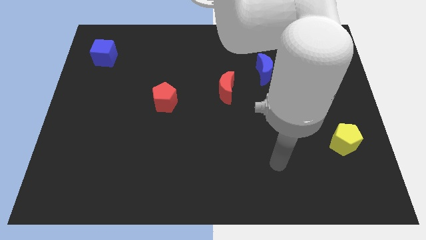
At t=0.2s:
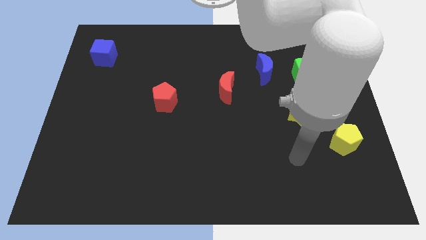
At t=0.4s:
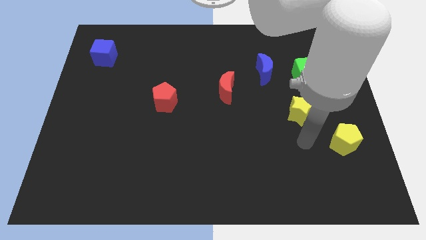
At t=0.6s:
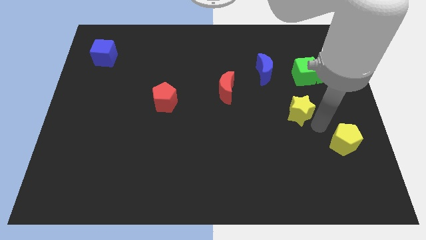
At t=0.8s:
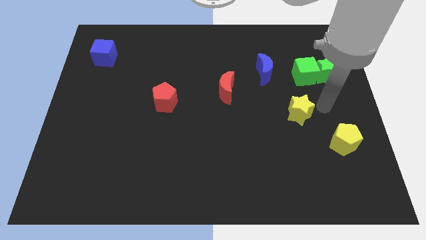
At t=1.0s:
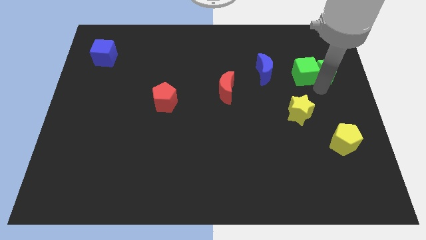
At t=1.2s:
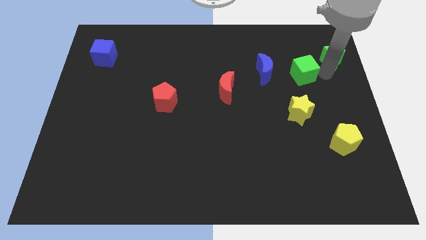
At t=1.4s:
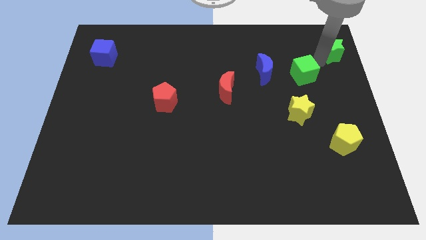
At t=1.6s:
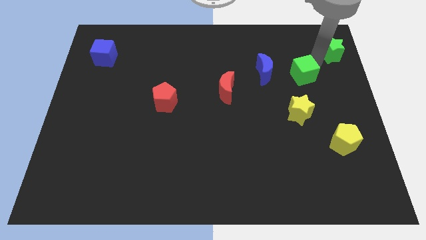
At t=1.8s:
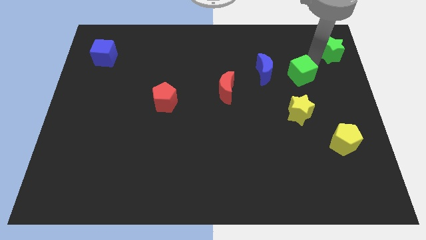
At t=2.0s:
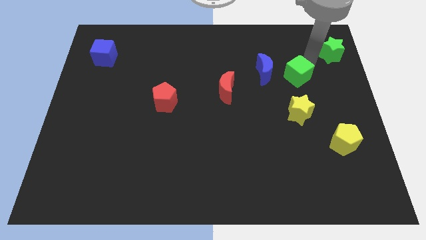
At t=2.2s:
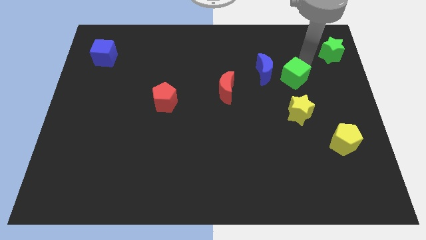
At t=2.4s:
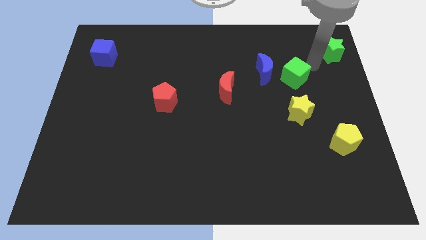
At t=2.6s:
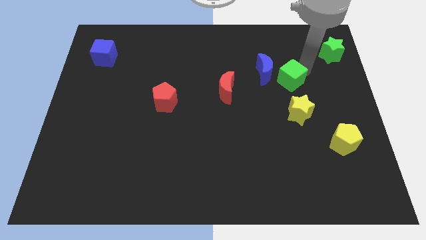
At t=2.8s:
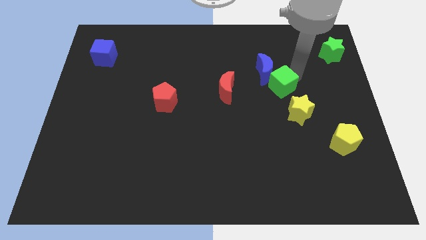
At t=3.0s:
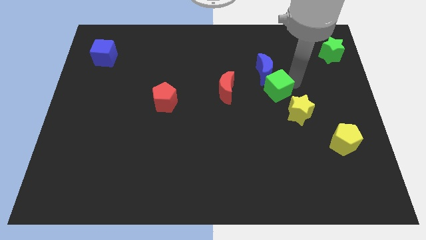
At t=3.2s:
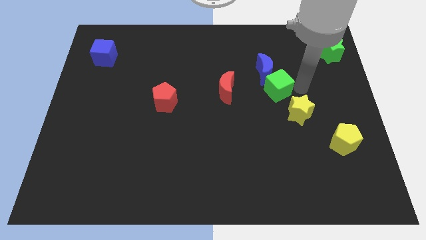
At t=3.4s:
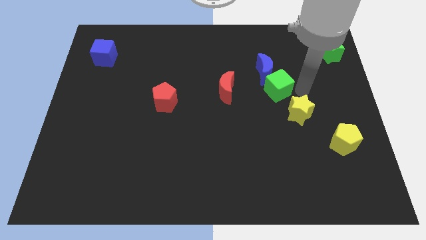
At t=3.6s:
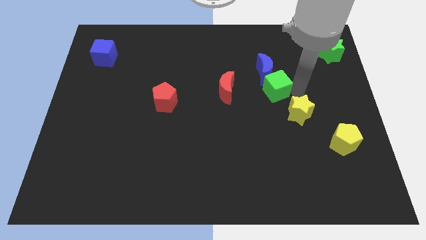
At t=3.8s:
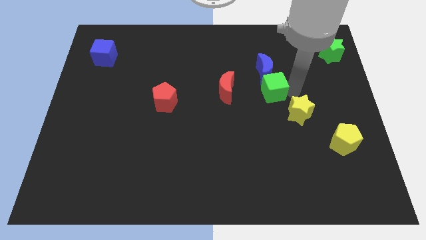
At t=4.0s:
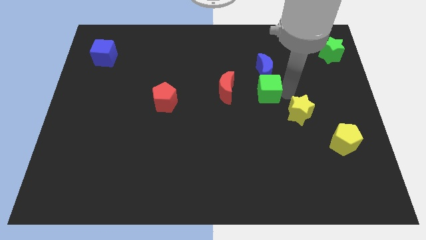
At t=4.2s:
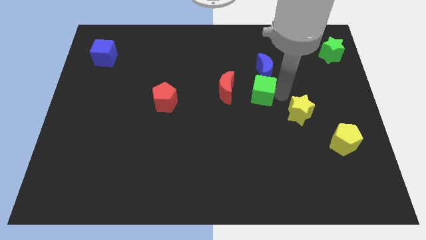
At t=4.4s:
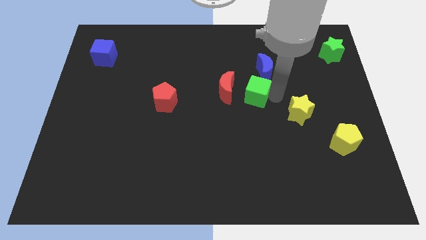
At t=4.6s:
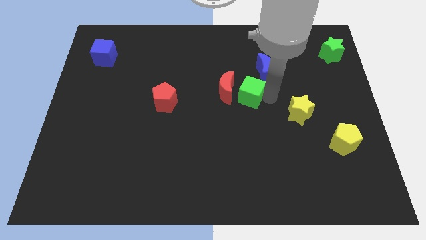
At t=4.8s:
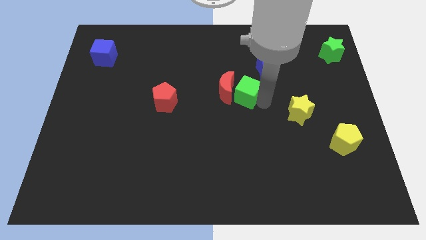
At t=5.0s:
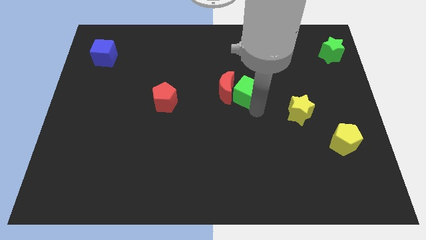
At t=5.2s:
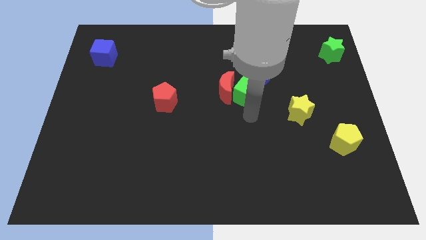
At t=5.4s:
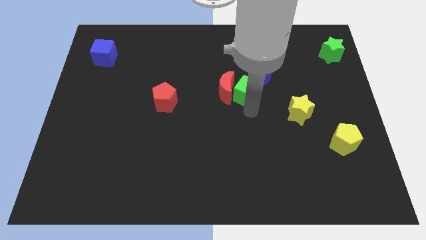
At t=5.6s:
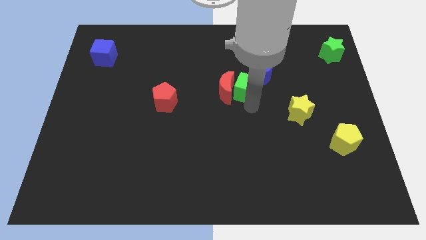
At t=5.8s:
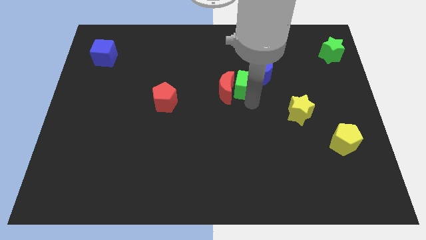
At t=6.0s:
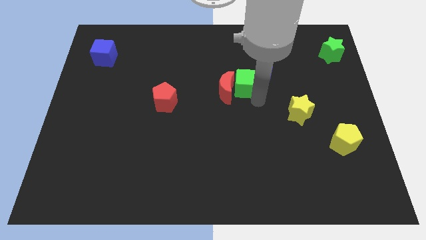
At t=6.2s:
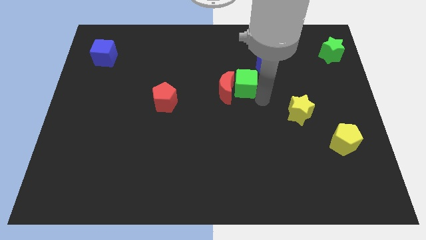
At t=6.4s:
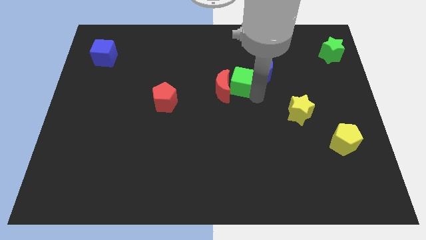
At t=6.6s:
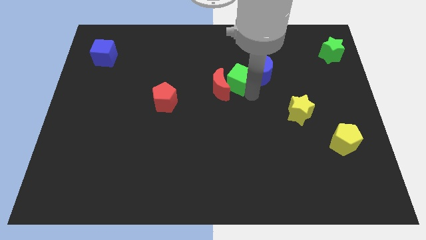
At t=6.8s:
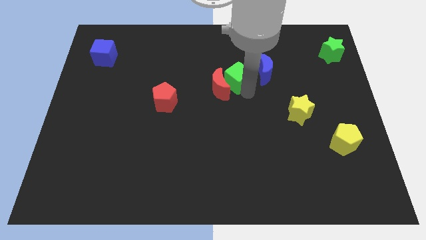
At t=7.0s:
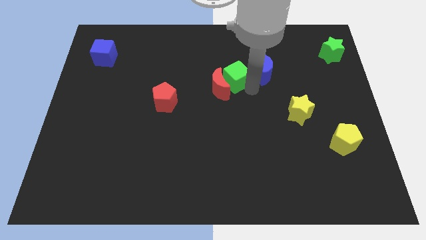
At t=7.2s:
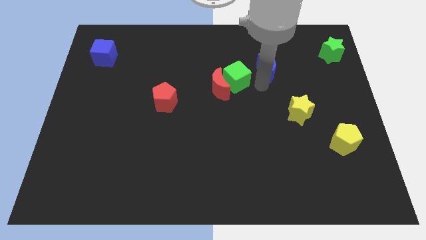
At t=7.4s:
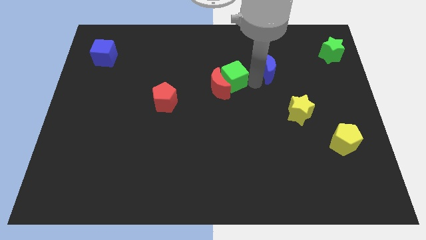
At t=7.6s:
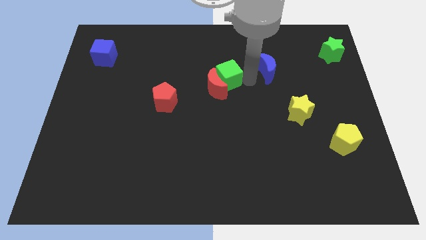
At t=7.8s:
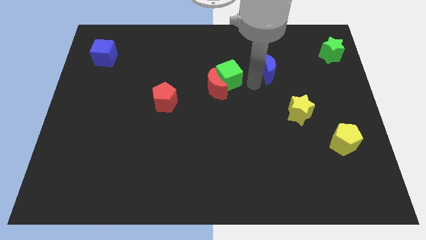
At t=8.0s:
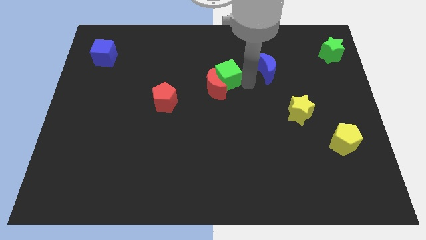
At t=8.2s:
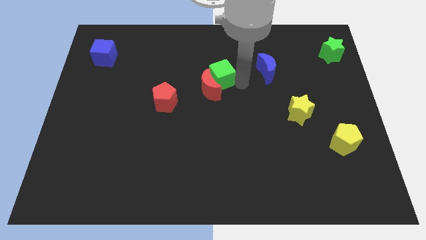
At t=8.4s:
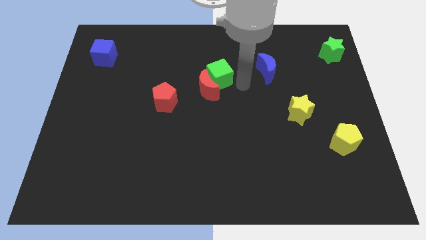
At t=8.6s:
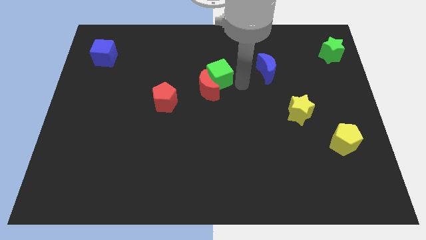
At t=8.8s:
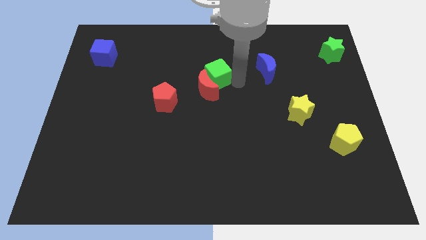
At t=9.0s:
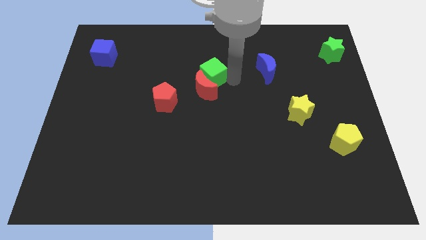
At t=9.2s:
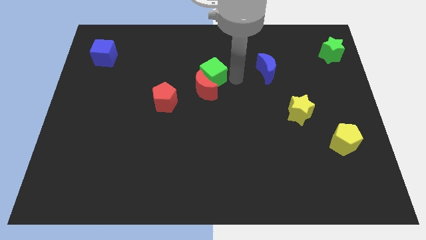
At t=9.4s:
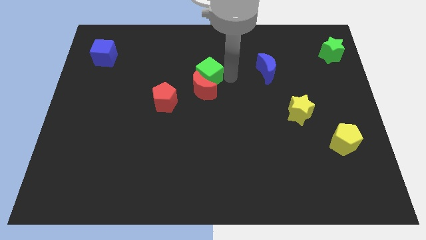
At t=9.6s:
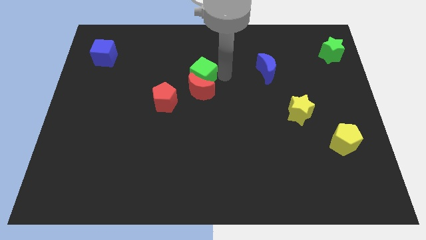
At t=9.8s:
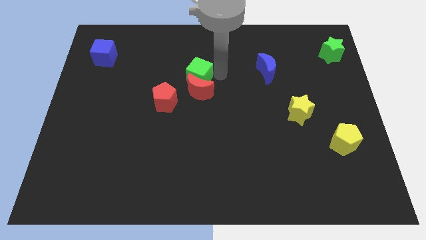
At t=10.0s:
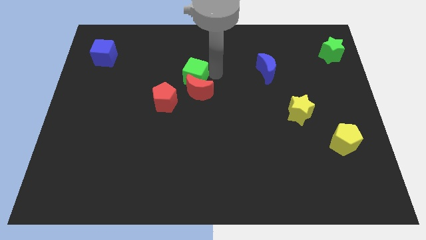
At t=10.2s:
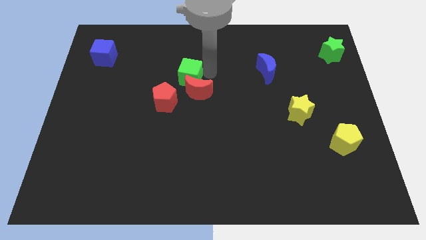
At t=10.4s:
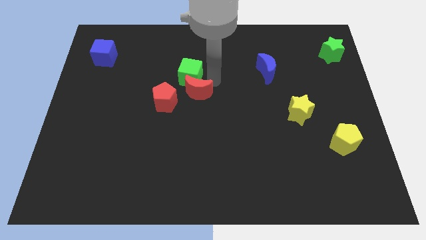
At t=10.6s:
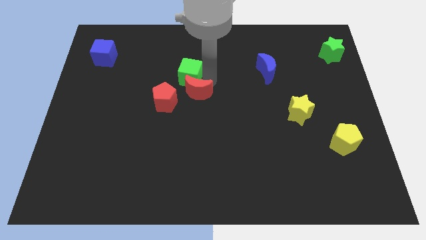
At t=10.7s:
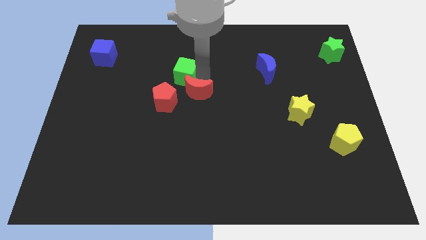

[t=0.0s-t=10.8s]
move the green cube to the top of the red pentagon

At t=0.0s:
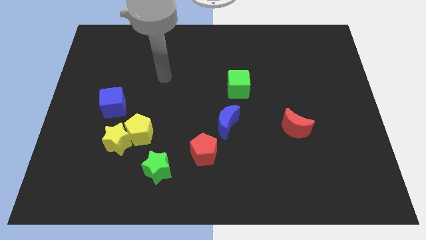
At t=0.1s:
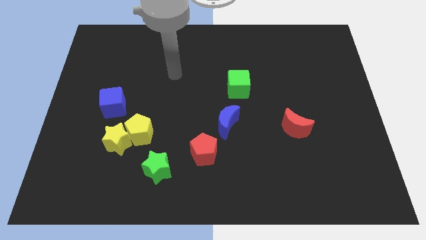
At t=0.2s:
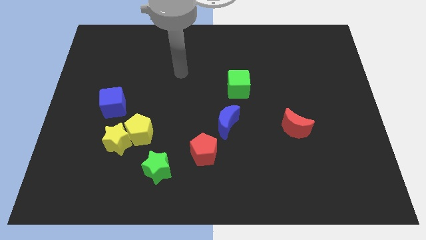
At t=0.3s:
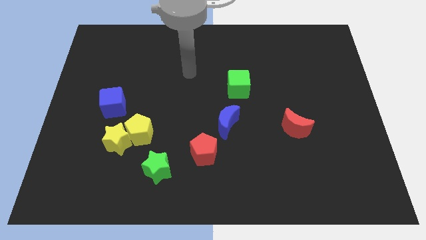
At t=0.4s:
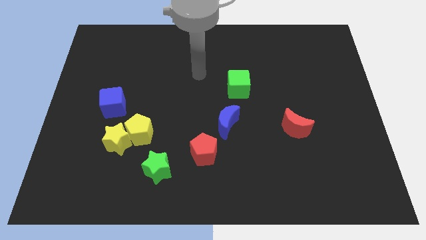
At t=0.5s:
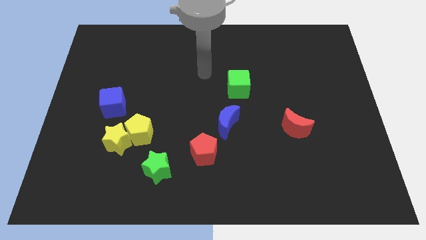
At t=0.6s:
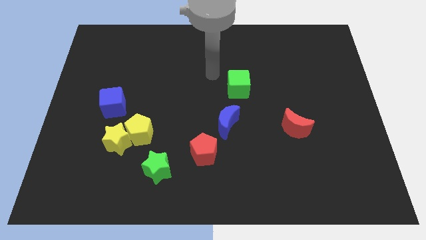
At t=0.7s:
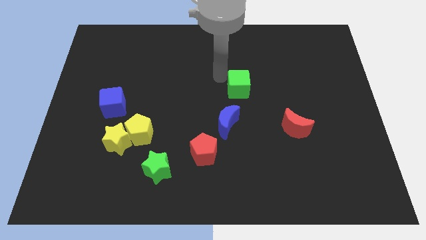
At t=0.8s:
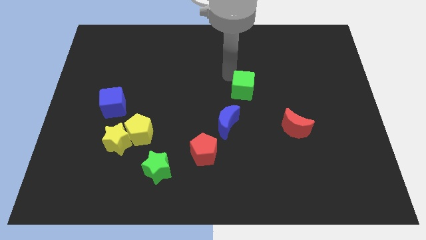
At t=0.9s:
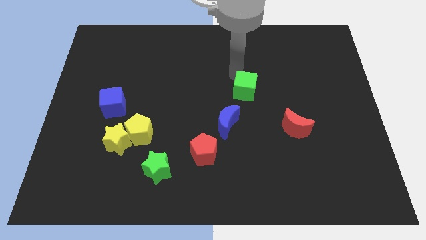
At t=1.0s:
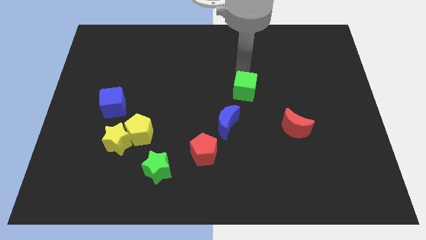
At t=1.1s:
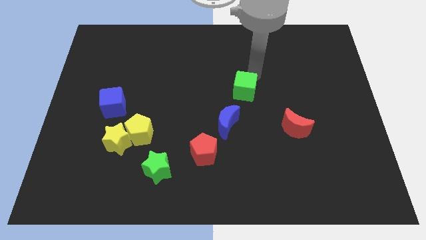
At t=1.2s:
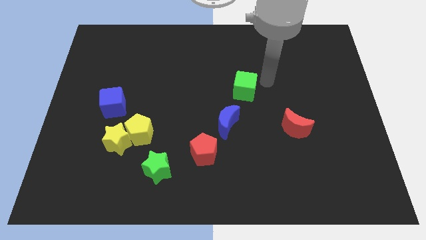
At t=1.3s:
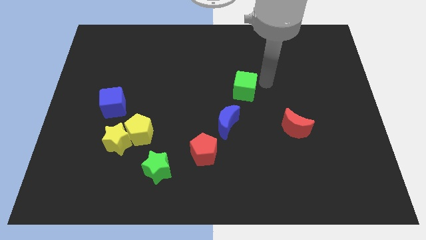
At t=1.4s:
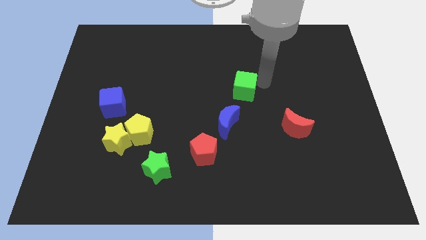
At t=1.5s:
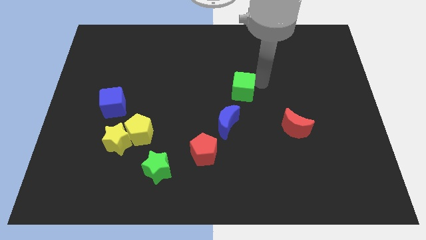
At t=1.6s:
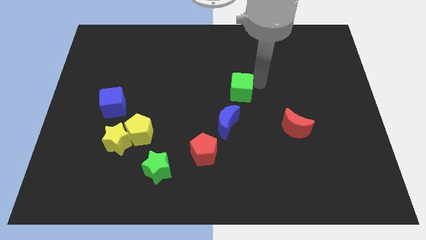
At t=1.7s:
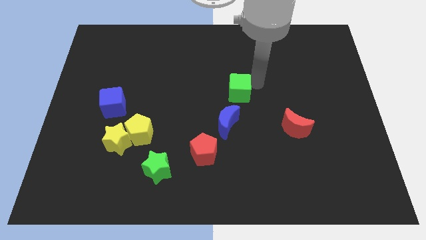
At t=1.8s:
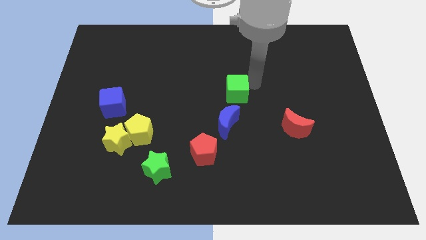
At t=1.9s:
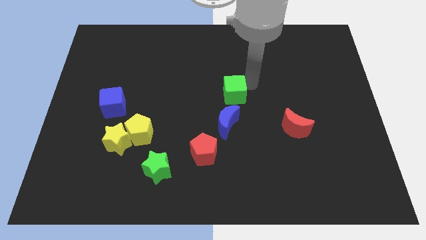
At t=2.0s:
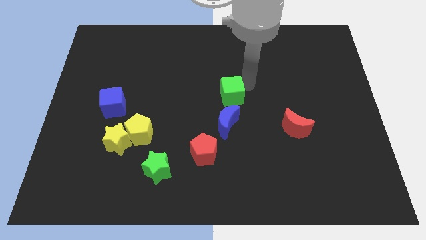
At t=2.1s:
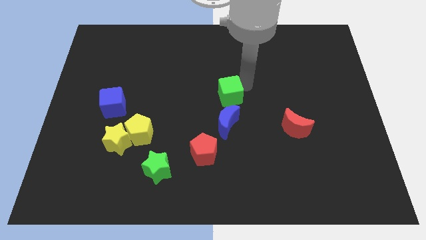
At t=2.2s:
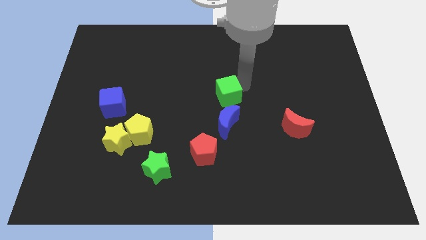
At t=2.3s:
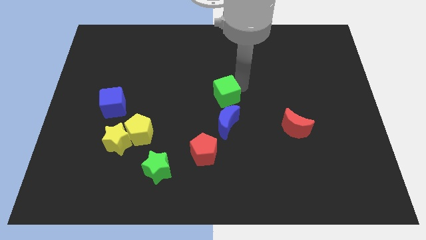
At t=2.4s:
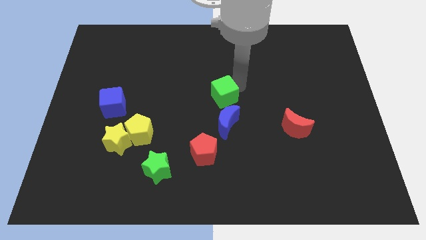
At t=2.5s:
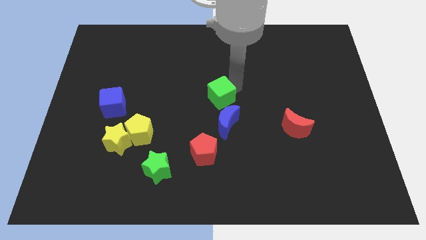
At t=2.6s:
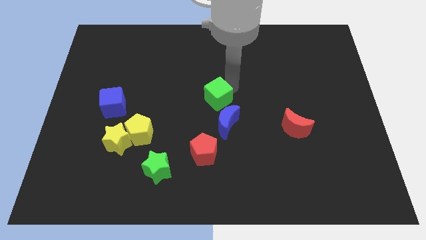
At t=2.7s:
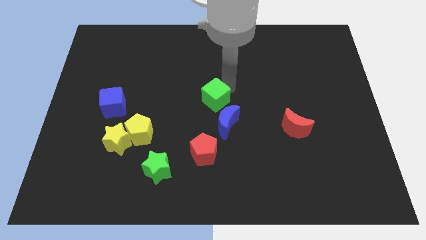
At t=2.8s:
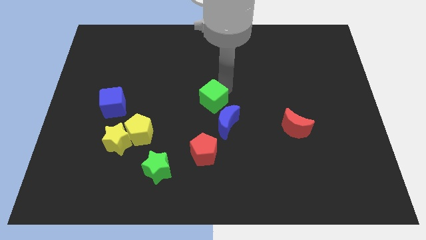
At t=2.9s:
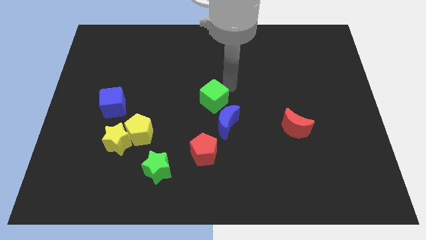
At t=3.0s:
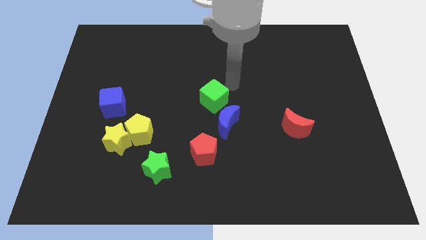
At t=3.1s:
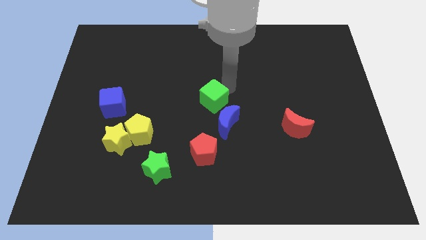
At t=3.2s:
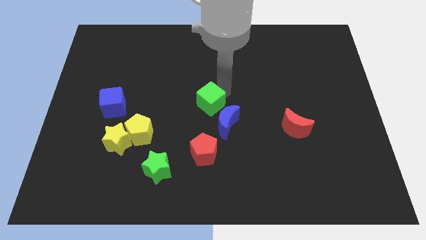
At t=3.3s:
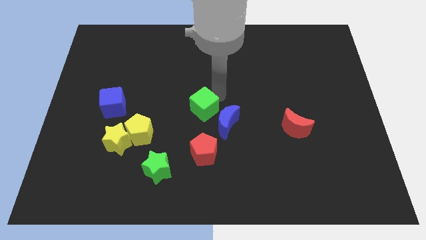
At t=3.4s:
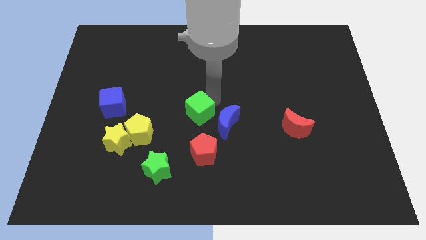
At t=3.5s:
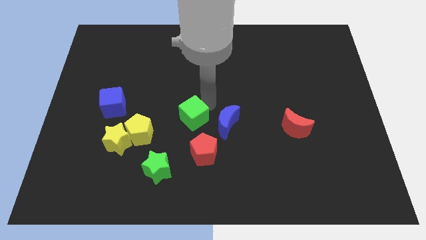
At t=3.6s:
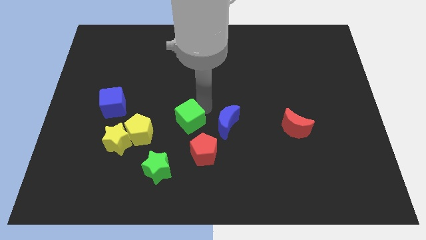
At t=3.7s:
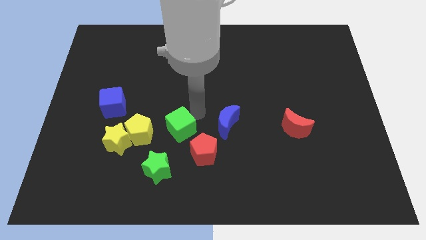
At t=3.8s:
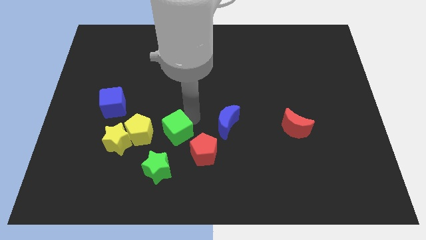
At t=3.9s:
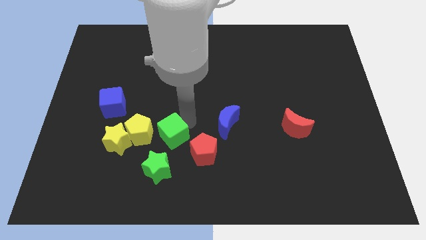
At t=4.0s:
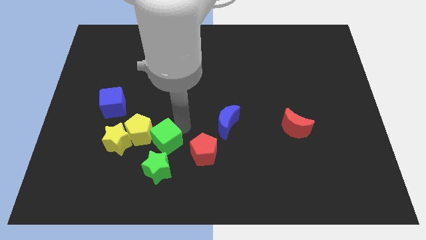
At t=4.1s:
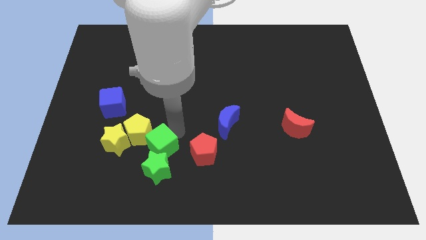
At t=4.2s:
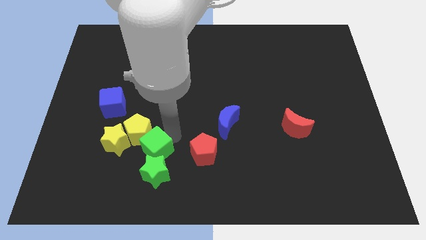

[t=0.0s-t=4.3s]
slide the green cube to the bottom of the yellow pentagon
